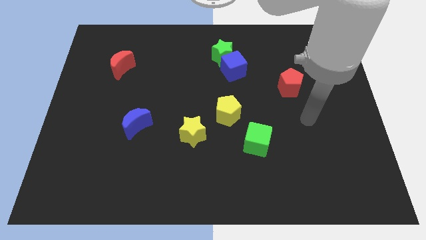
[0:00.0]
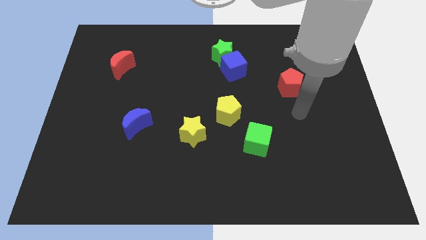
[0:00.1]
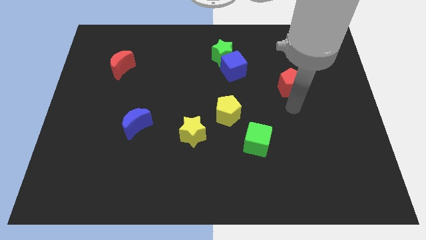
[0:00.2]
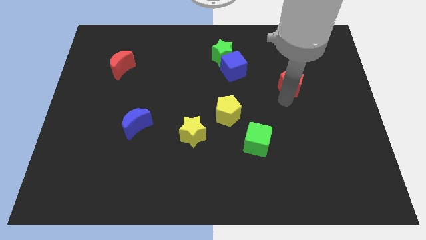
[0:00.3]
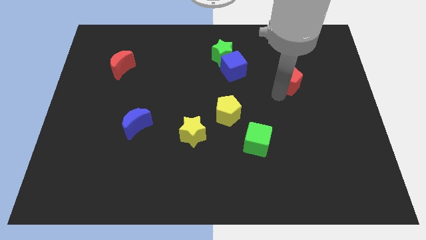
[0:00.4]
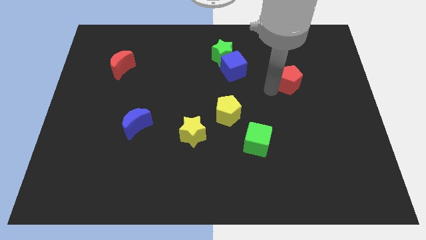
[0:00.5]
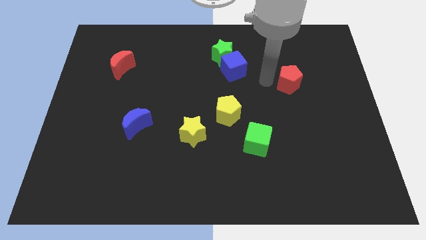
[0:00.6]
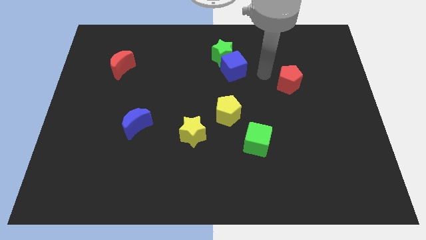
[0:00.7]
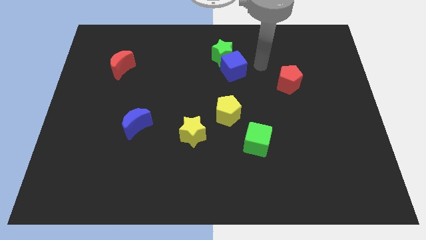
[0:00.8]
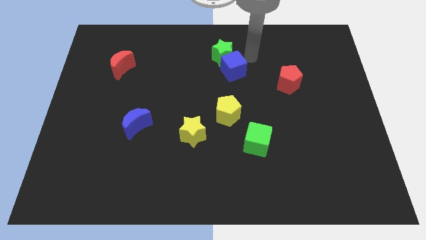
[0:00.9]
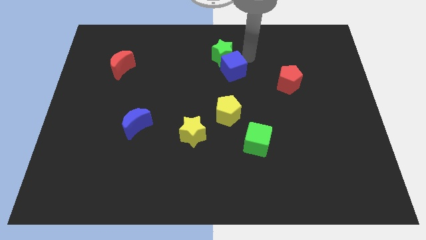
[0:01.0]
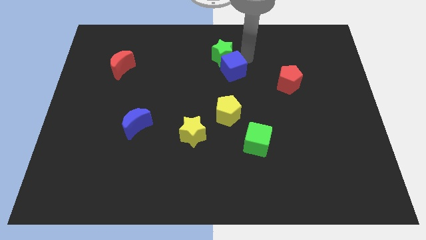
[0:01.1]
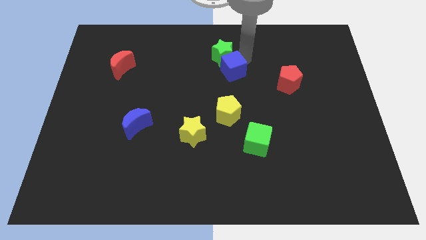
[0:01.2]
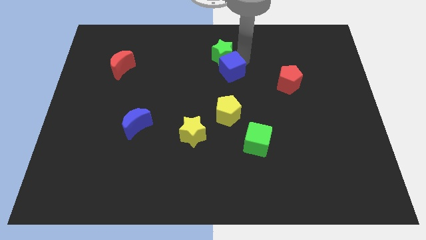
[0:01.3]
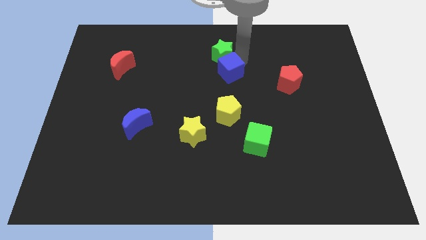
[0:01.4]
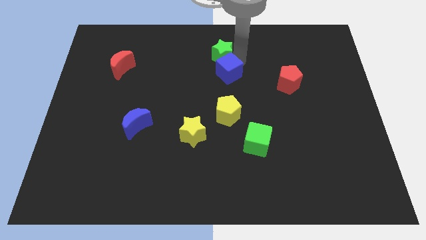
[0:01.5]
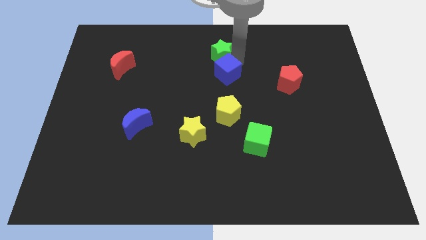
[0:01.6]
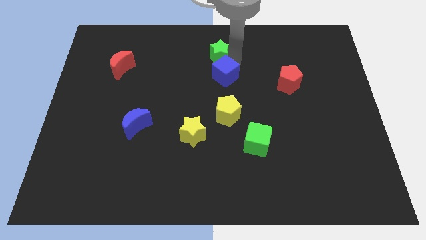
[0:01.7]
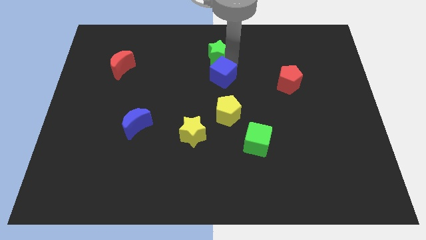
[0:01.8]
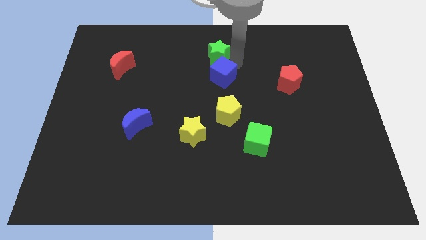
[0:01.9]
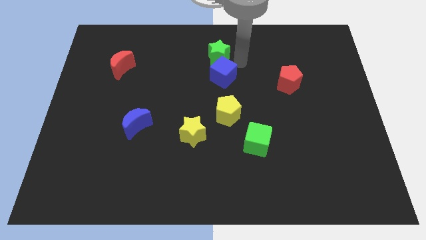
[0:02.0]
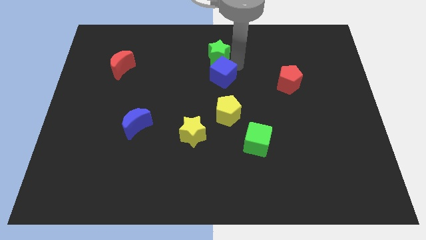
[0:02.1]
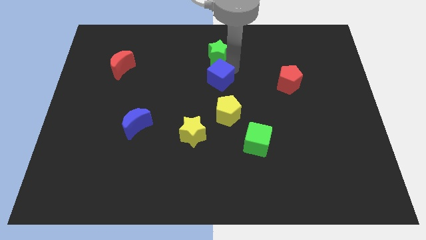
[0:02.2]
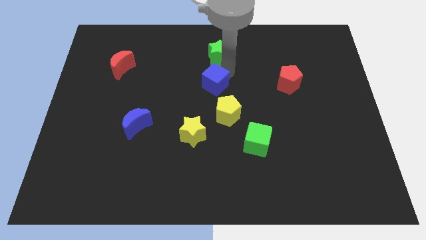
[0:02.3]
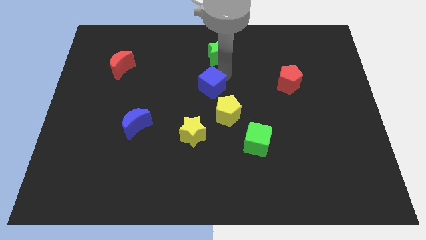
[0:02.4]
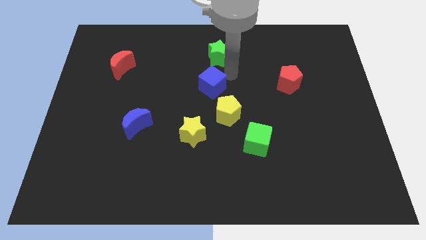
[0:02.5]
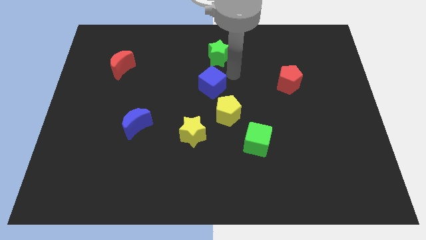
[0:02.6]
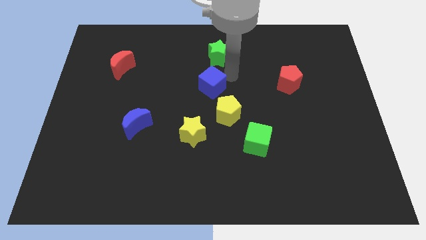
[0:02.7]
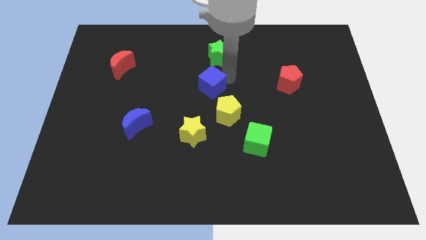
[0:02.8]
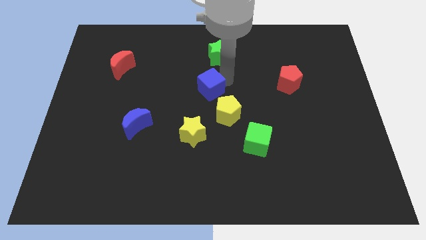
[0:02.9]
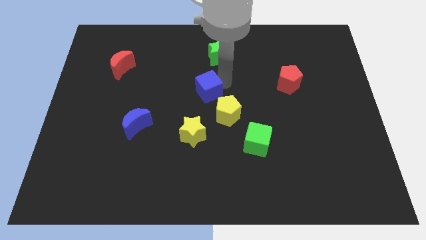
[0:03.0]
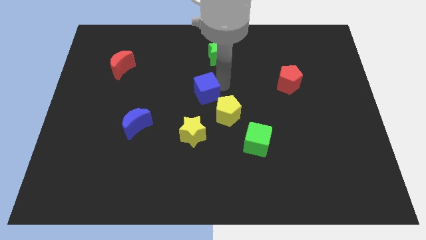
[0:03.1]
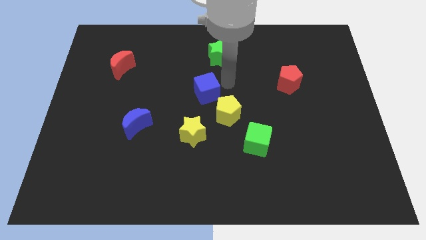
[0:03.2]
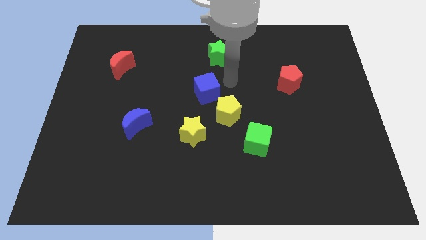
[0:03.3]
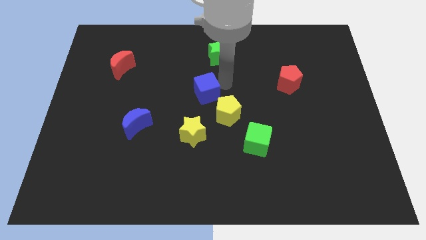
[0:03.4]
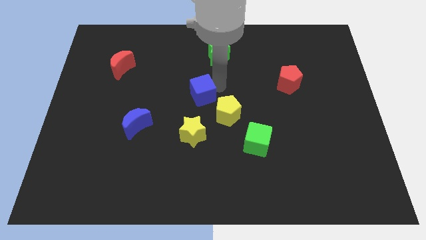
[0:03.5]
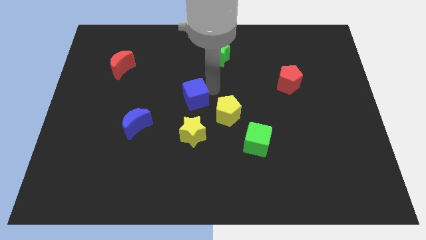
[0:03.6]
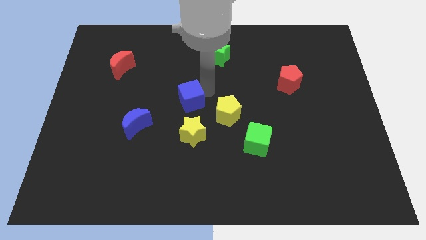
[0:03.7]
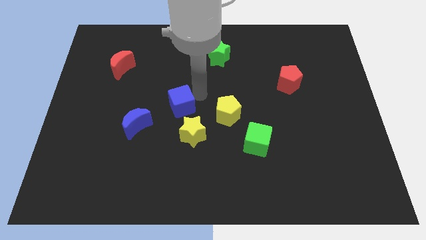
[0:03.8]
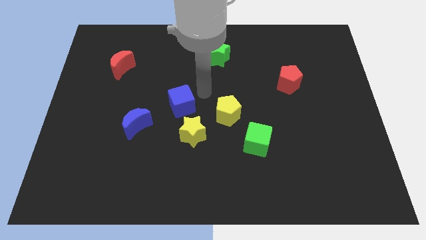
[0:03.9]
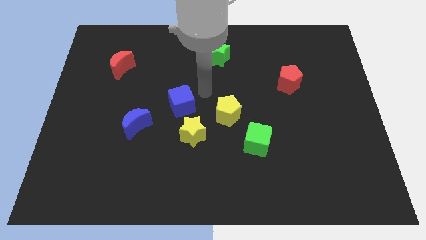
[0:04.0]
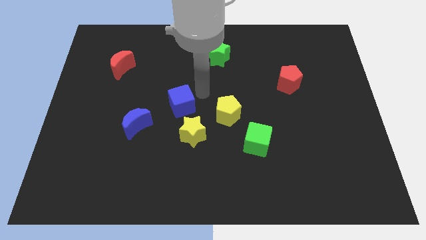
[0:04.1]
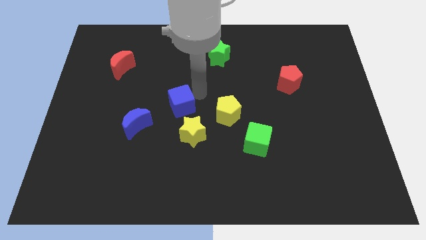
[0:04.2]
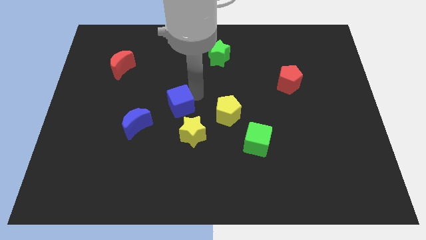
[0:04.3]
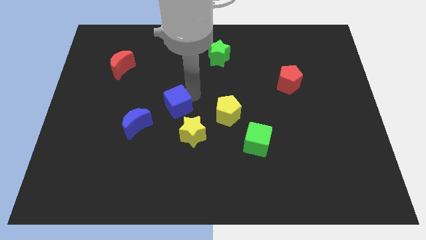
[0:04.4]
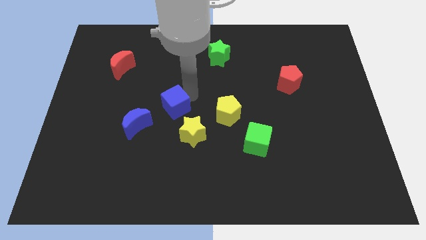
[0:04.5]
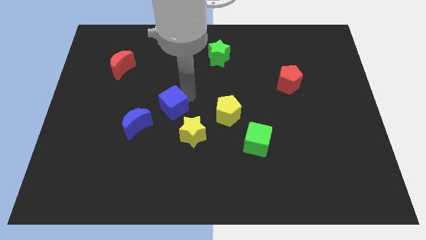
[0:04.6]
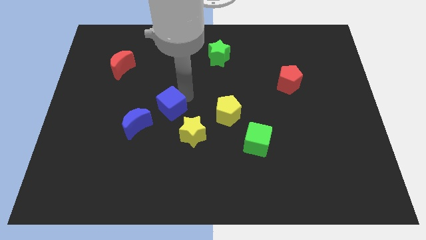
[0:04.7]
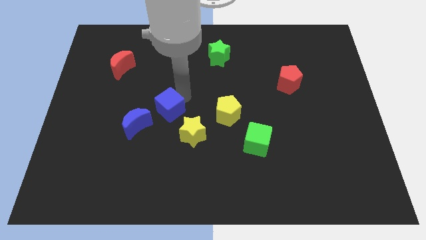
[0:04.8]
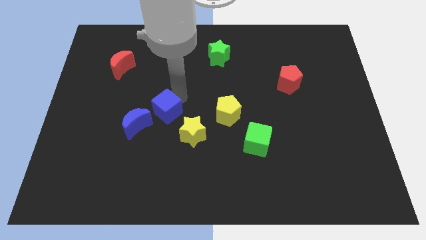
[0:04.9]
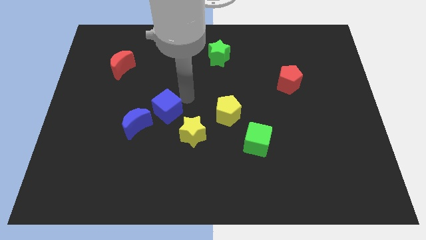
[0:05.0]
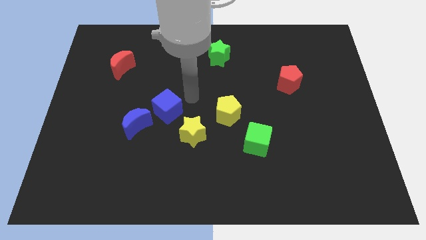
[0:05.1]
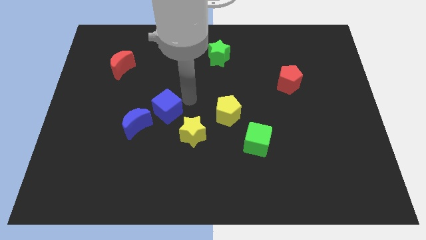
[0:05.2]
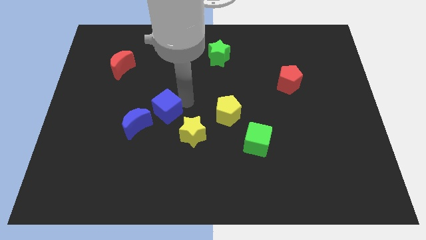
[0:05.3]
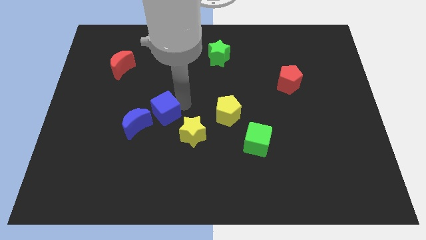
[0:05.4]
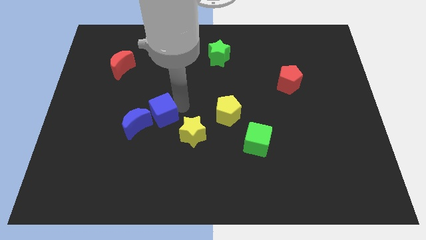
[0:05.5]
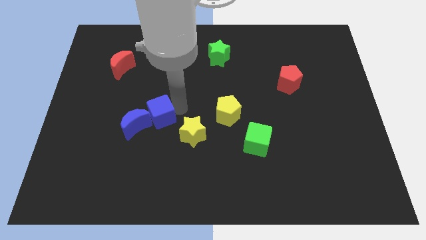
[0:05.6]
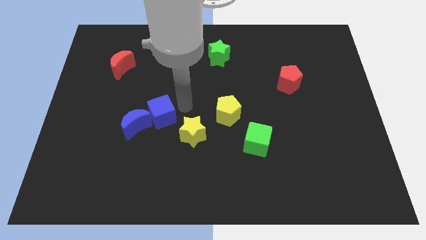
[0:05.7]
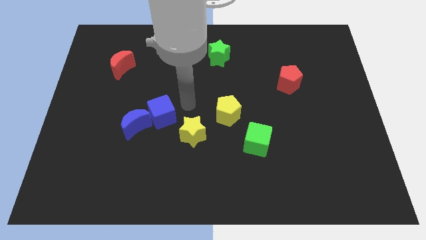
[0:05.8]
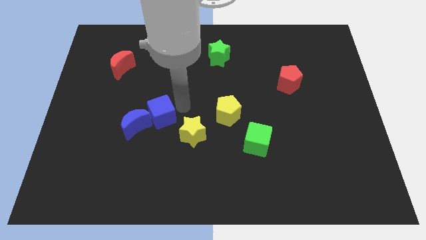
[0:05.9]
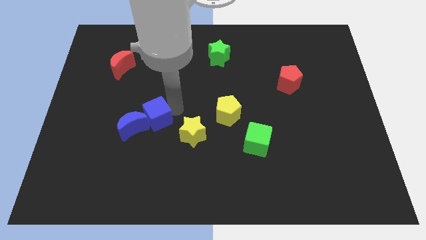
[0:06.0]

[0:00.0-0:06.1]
move the blue cube to the blue moon

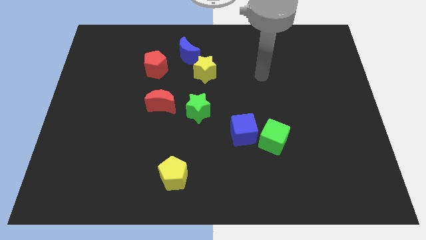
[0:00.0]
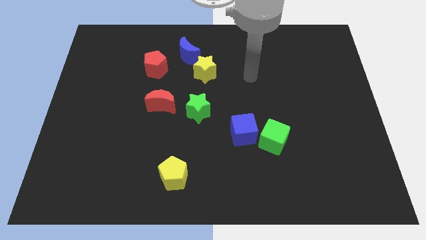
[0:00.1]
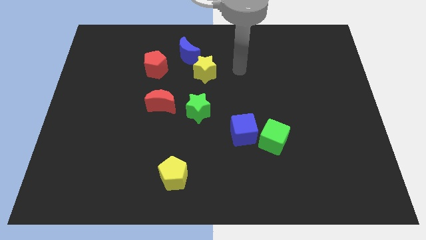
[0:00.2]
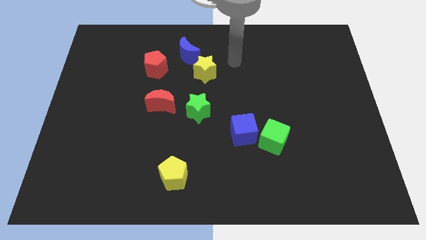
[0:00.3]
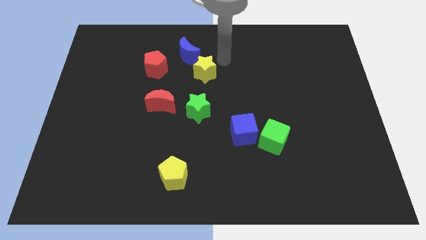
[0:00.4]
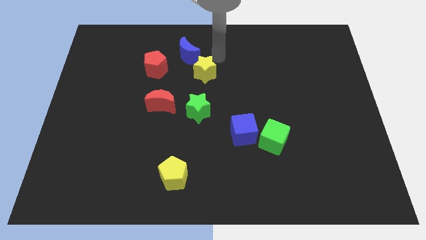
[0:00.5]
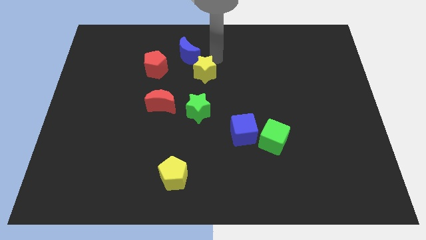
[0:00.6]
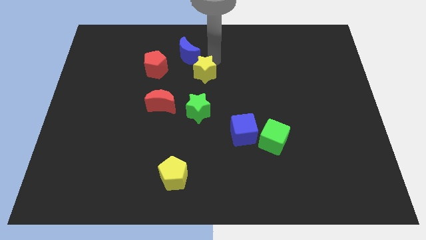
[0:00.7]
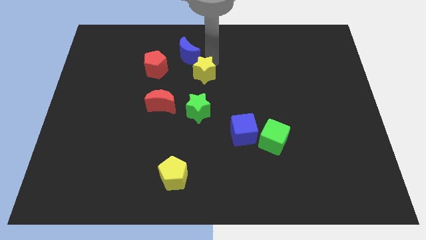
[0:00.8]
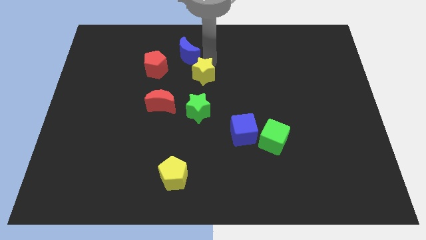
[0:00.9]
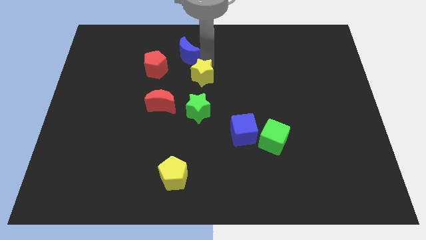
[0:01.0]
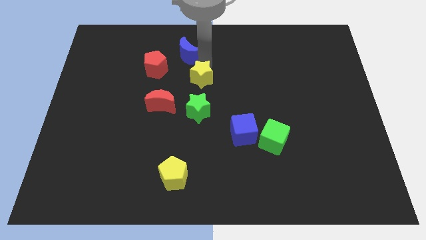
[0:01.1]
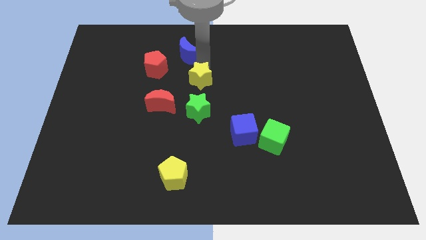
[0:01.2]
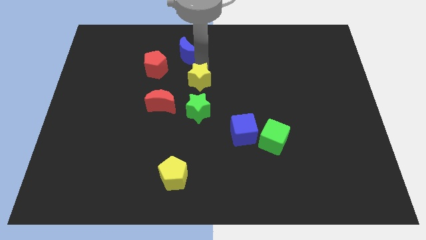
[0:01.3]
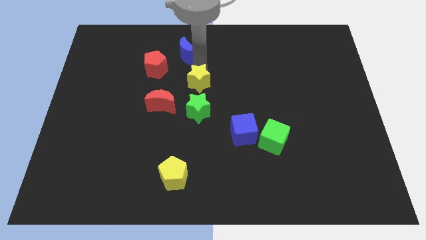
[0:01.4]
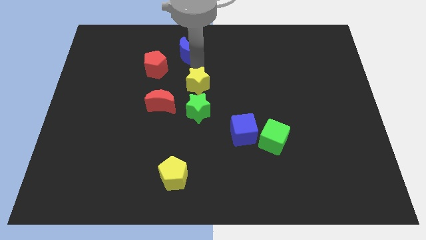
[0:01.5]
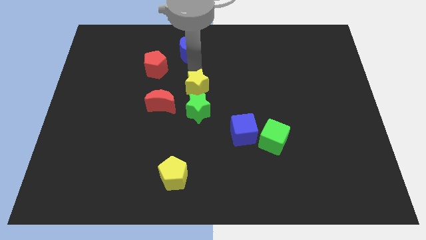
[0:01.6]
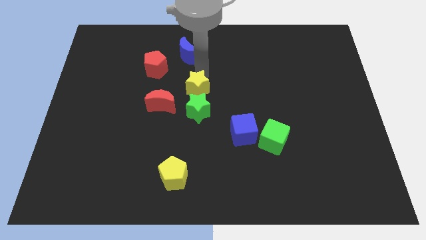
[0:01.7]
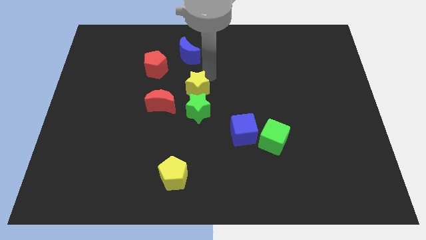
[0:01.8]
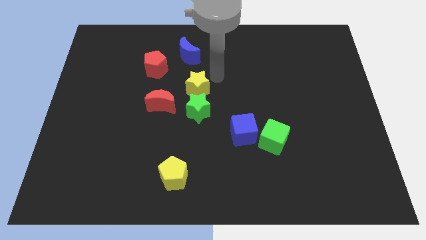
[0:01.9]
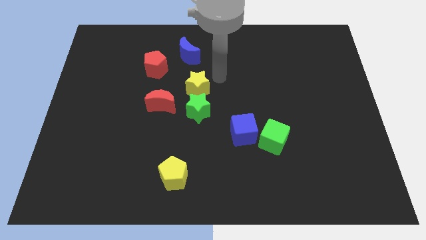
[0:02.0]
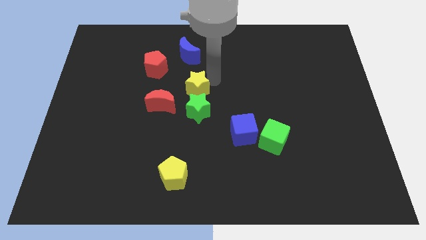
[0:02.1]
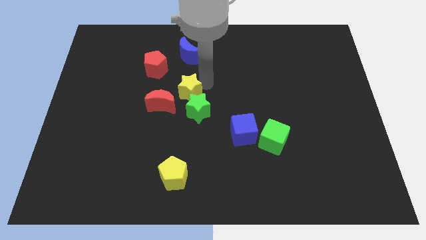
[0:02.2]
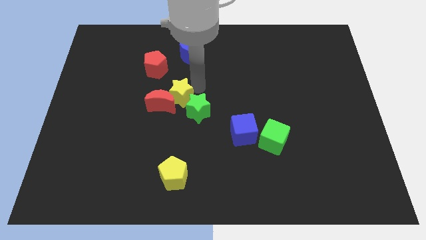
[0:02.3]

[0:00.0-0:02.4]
put the yellow star towards the red moon
